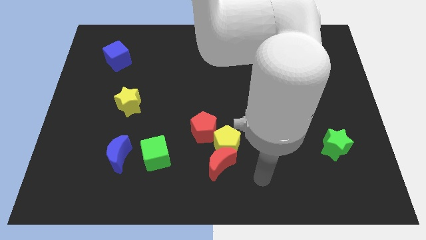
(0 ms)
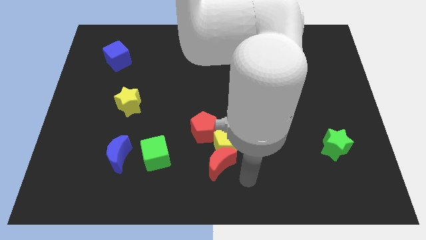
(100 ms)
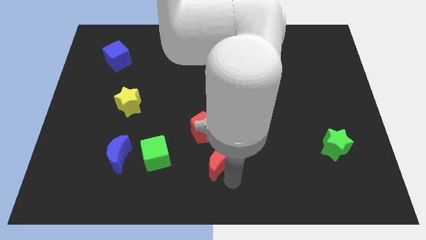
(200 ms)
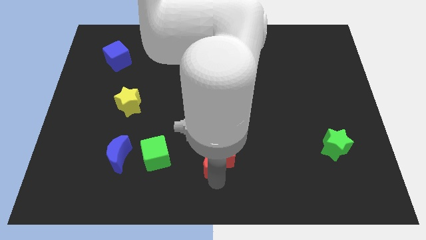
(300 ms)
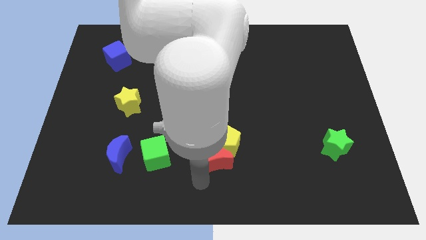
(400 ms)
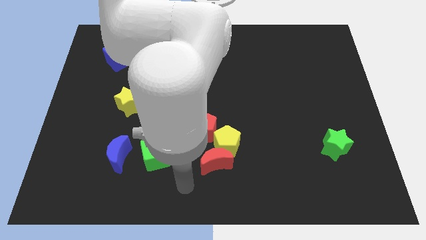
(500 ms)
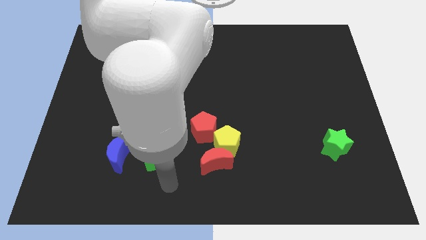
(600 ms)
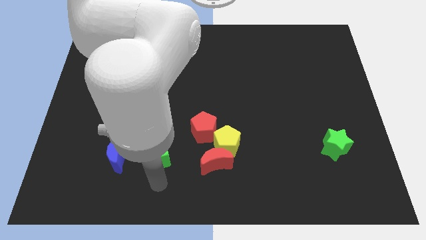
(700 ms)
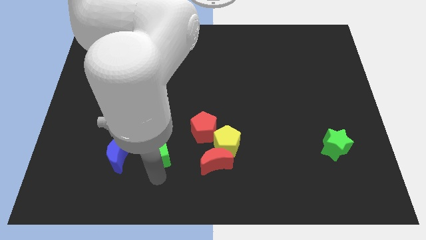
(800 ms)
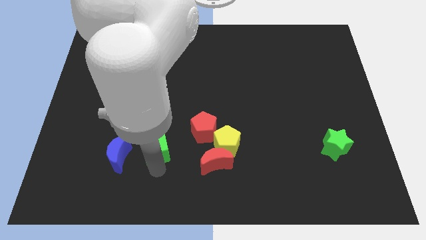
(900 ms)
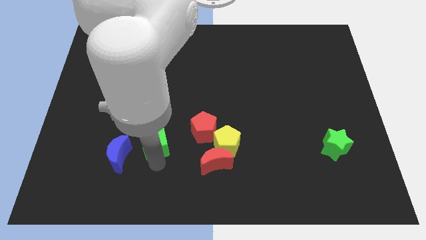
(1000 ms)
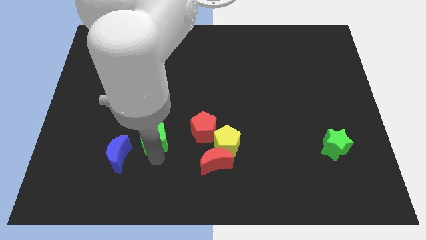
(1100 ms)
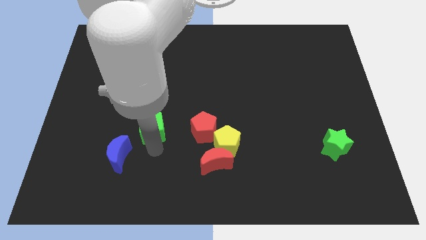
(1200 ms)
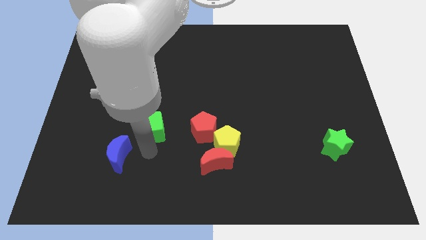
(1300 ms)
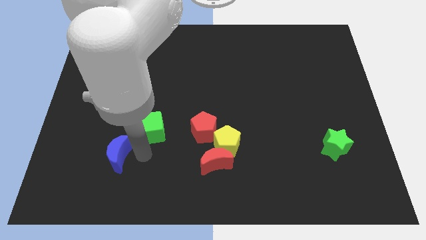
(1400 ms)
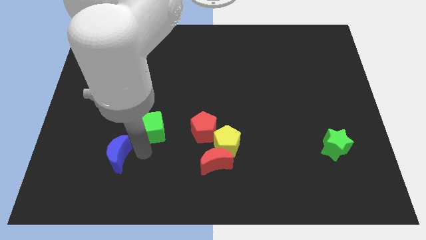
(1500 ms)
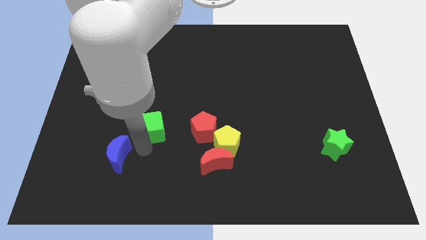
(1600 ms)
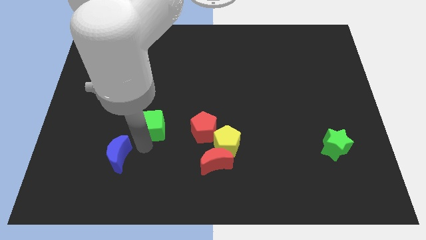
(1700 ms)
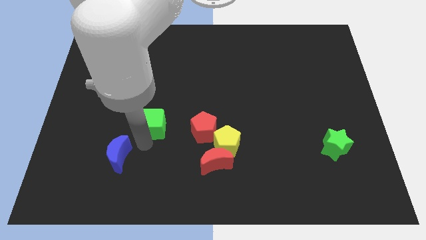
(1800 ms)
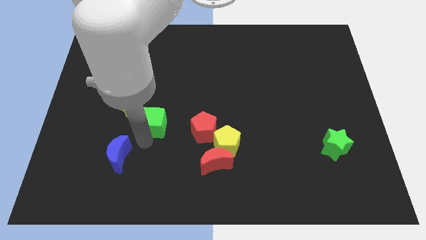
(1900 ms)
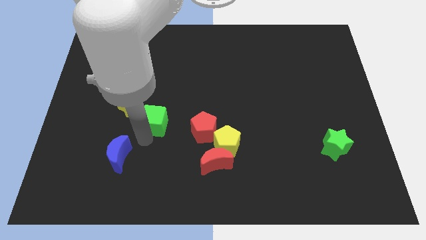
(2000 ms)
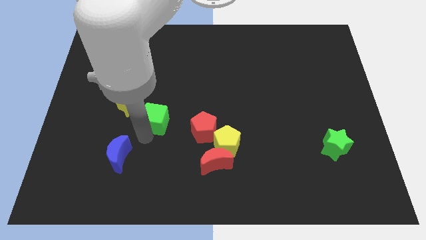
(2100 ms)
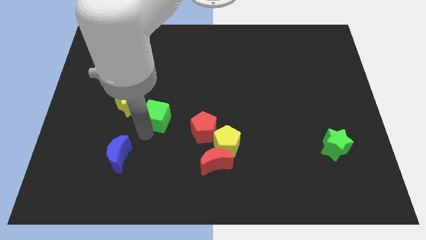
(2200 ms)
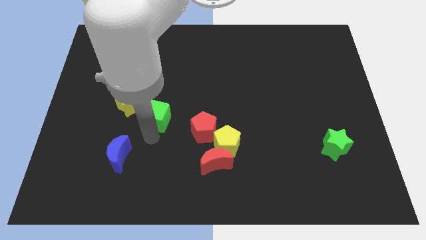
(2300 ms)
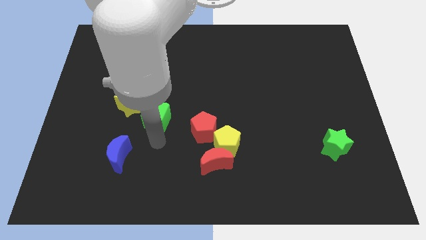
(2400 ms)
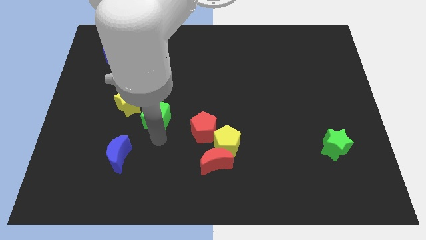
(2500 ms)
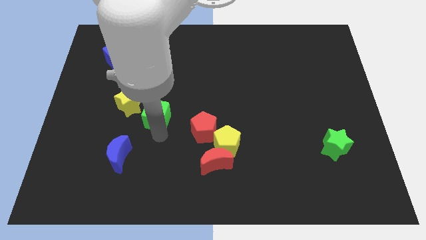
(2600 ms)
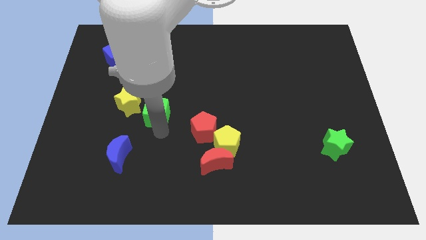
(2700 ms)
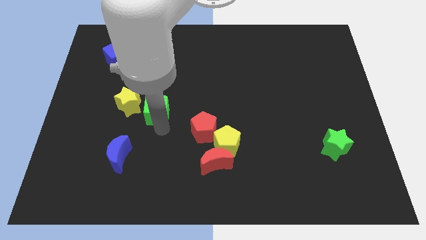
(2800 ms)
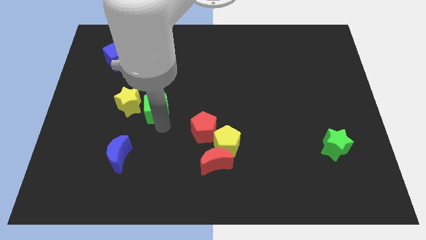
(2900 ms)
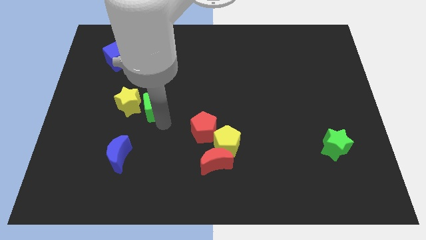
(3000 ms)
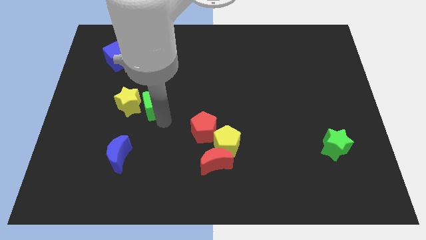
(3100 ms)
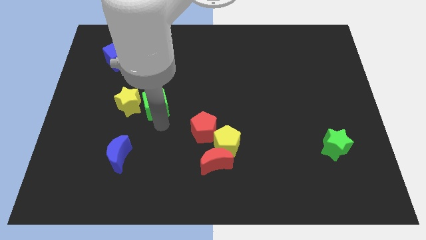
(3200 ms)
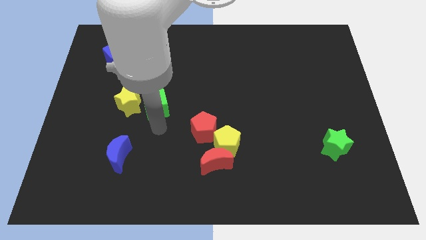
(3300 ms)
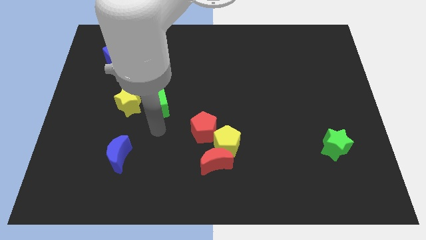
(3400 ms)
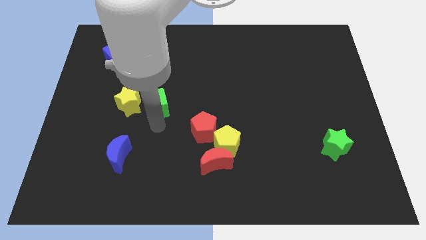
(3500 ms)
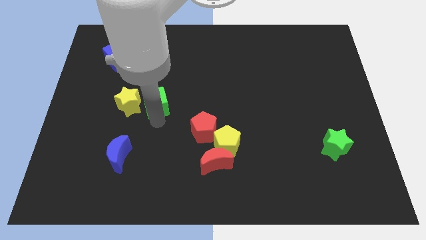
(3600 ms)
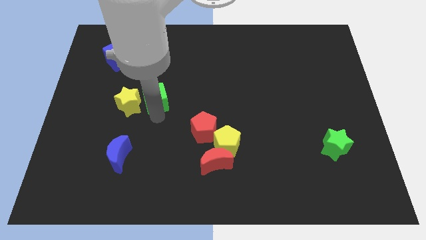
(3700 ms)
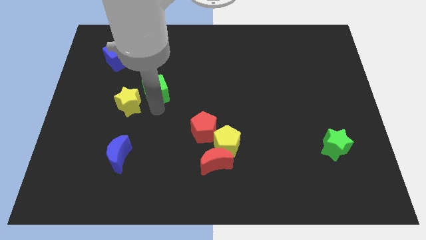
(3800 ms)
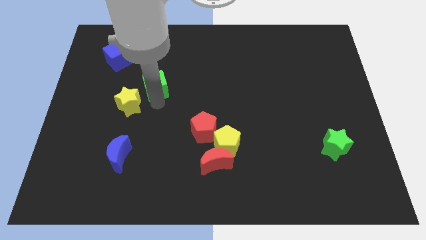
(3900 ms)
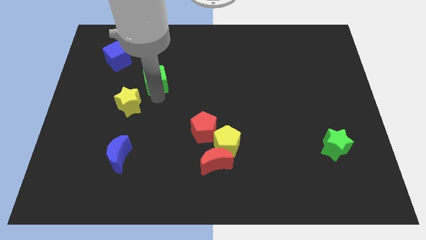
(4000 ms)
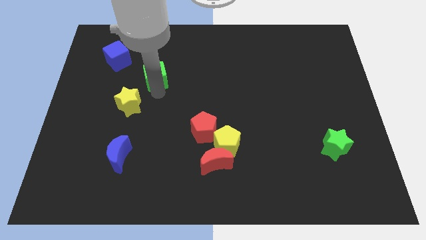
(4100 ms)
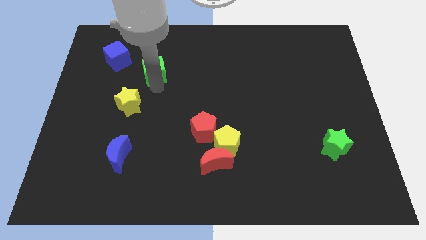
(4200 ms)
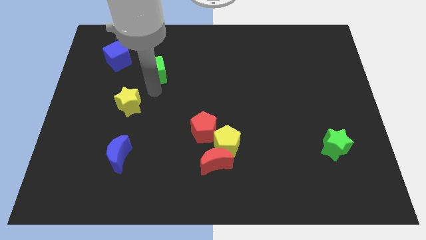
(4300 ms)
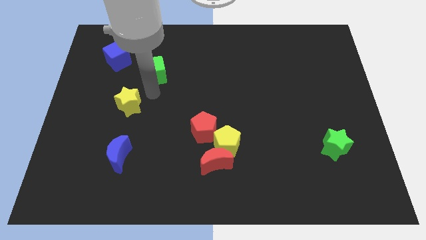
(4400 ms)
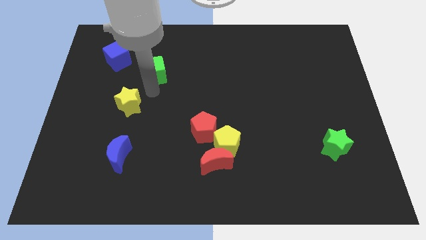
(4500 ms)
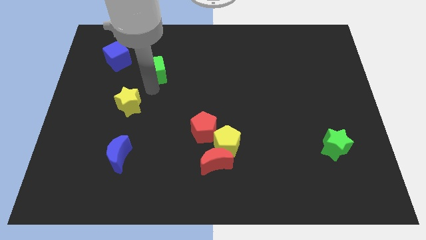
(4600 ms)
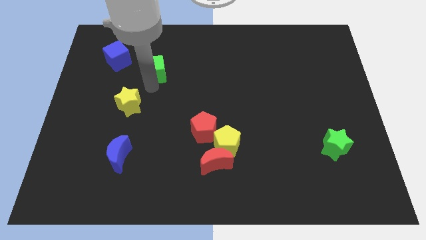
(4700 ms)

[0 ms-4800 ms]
push the green cube to the right side of the blue cube

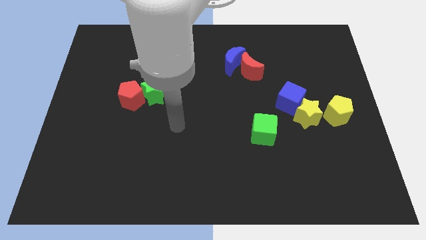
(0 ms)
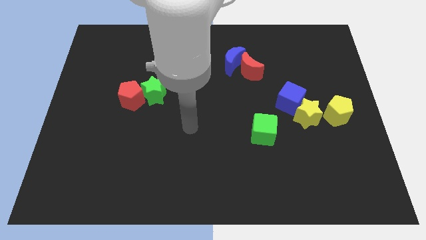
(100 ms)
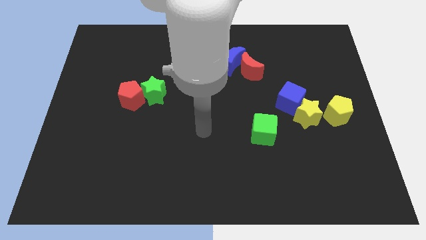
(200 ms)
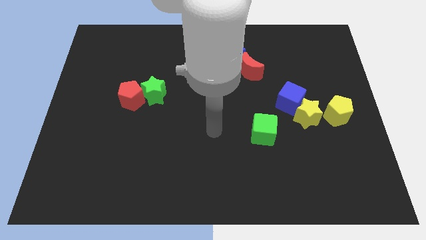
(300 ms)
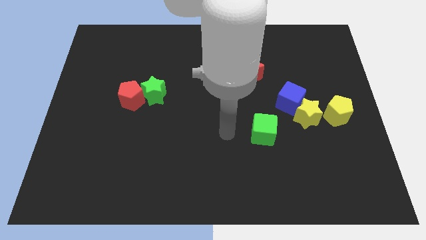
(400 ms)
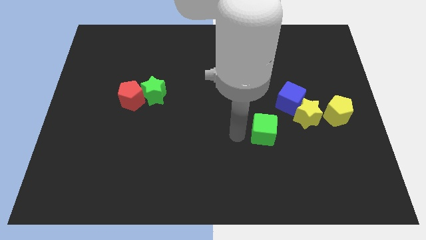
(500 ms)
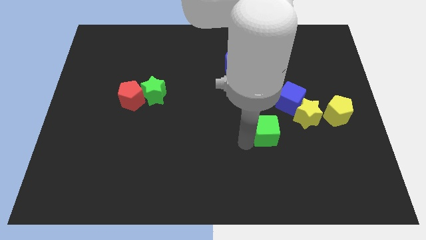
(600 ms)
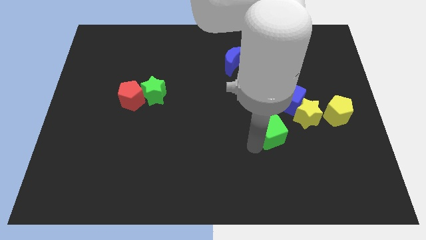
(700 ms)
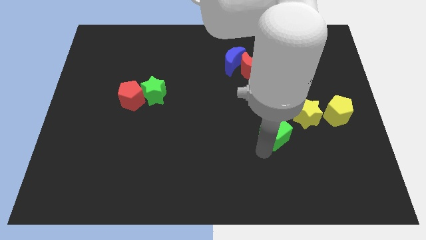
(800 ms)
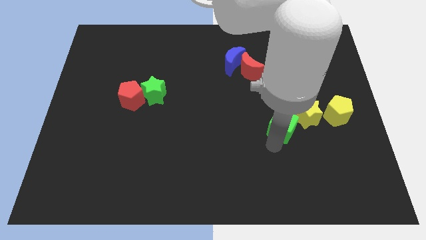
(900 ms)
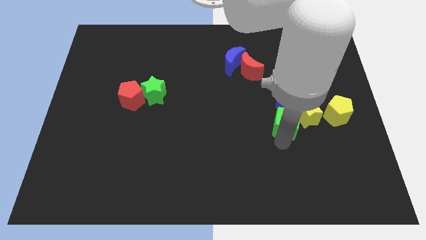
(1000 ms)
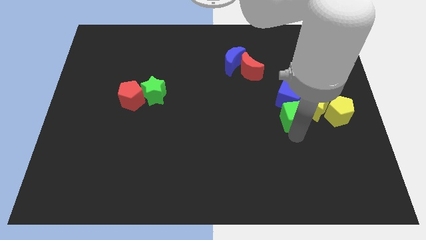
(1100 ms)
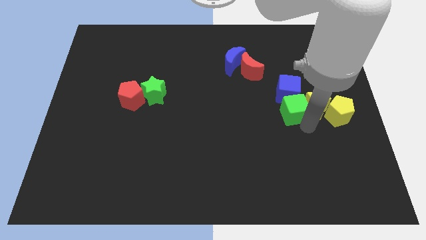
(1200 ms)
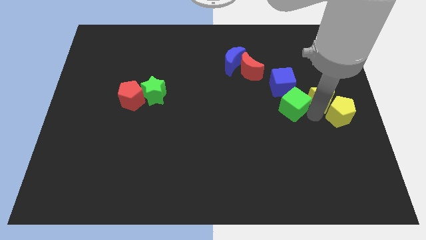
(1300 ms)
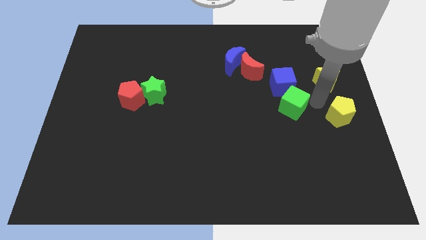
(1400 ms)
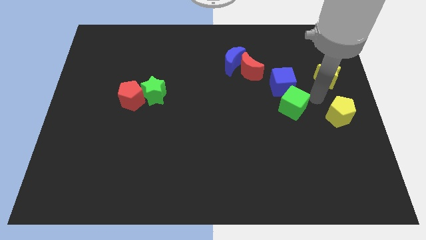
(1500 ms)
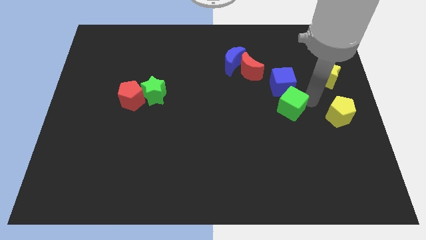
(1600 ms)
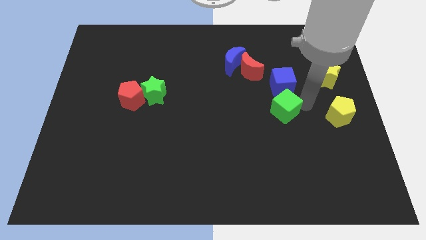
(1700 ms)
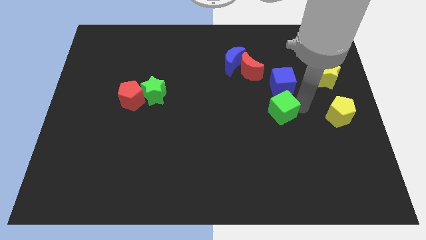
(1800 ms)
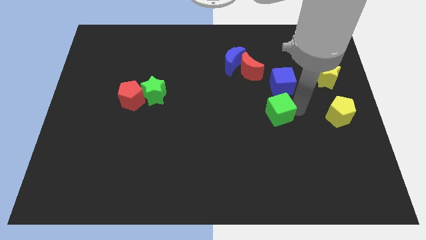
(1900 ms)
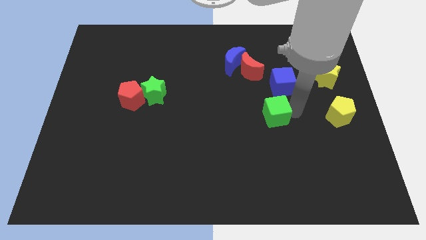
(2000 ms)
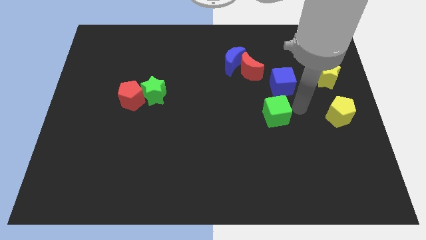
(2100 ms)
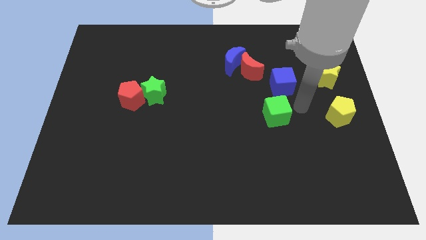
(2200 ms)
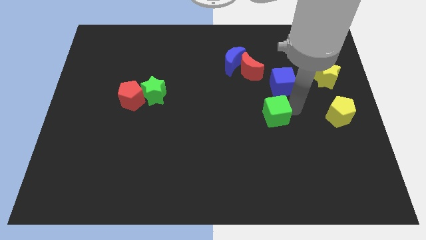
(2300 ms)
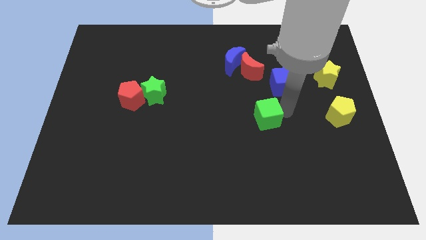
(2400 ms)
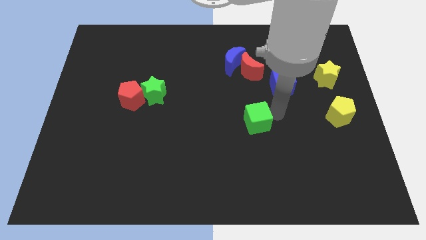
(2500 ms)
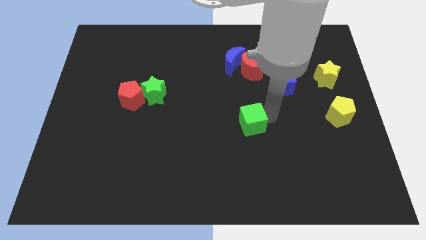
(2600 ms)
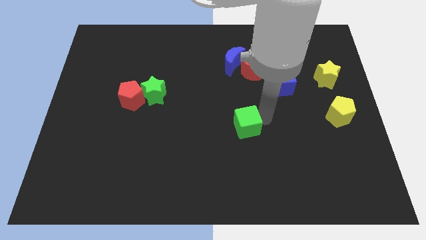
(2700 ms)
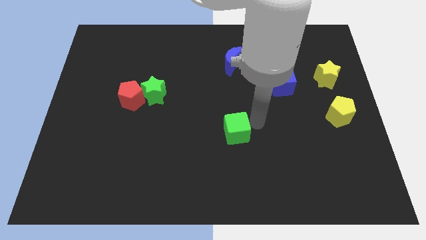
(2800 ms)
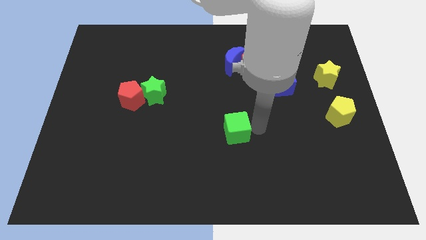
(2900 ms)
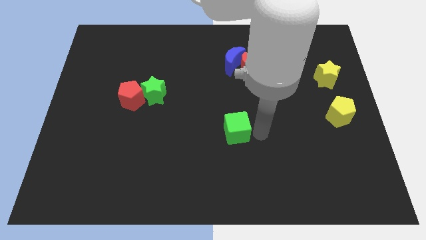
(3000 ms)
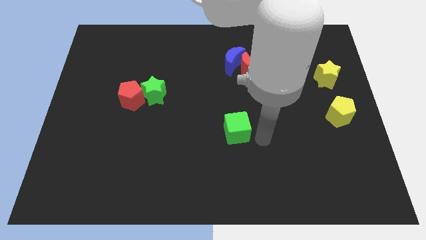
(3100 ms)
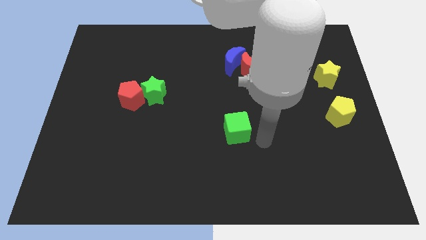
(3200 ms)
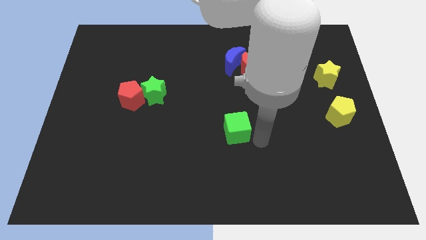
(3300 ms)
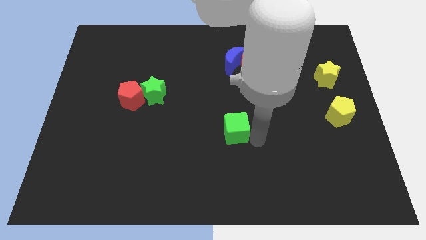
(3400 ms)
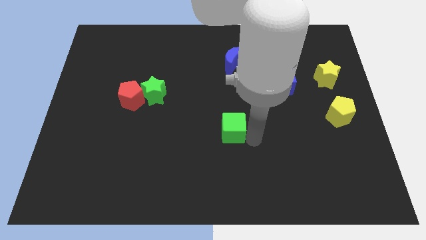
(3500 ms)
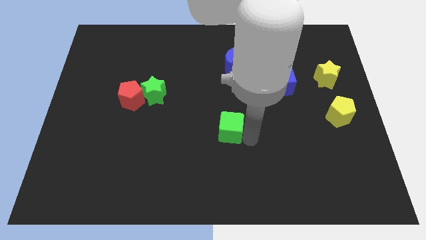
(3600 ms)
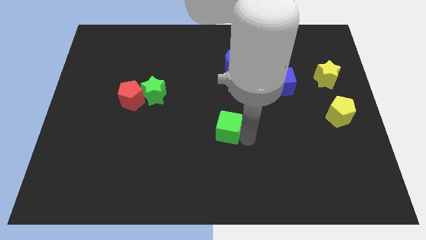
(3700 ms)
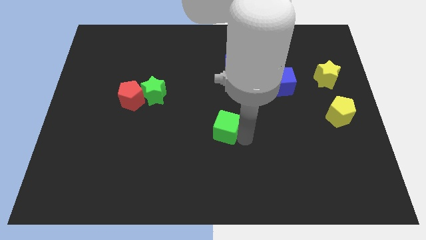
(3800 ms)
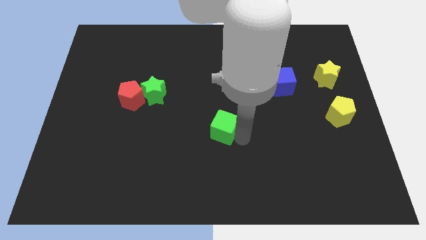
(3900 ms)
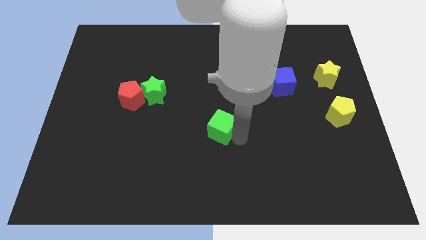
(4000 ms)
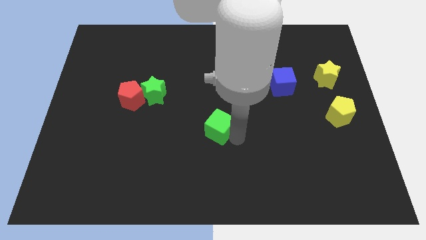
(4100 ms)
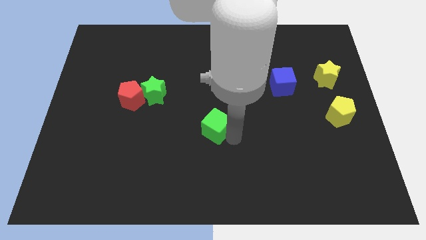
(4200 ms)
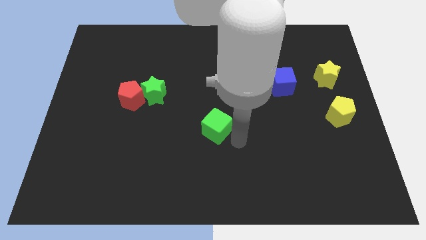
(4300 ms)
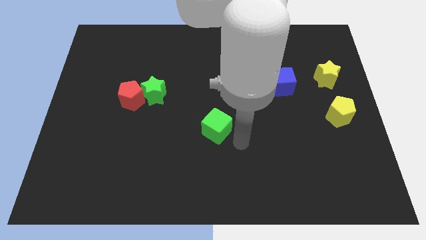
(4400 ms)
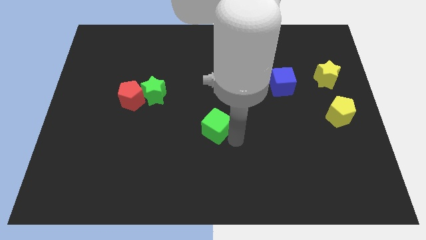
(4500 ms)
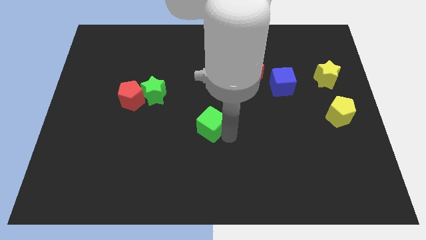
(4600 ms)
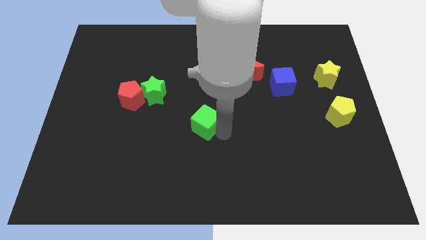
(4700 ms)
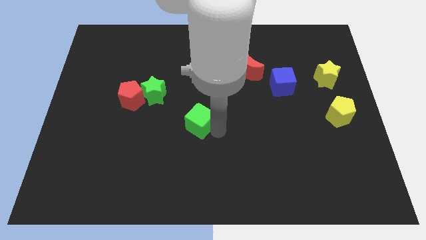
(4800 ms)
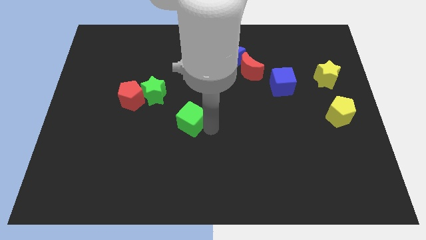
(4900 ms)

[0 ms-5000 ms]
push the green cube to the bottom right side of the green star
